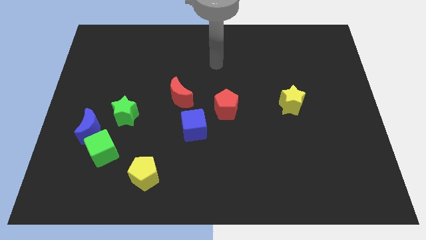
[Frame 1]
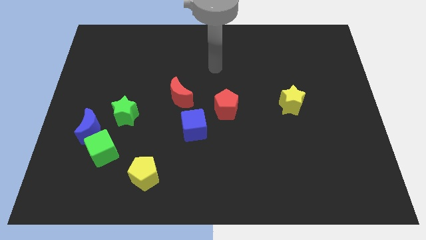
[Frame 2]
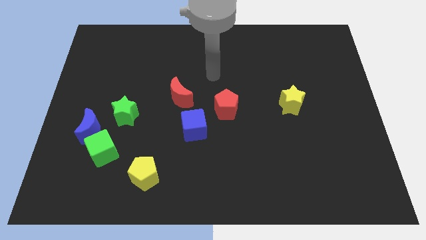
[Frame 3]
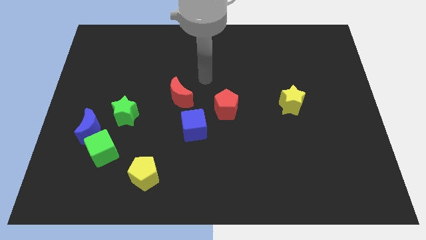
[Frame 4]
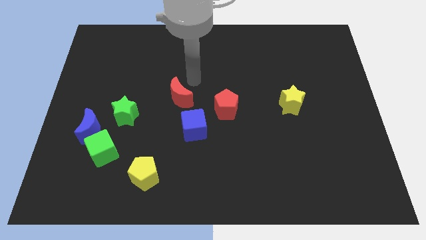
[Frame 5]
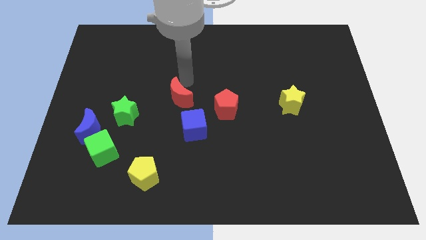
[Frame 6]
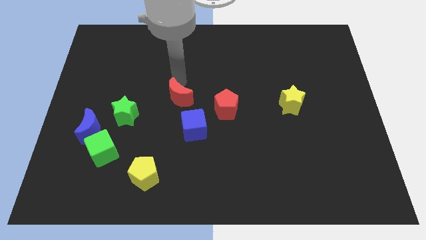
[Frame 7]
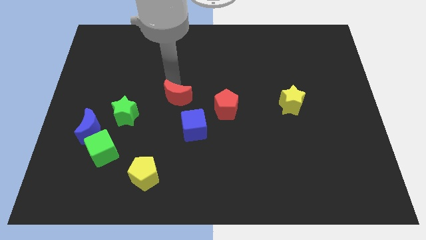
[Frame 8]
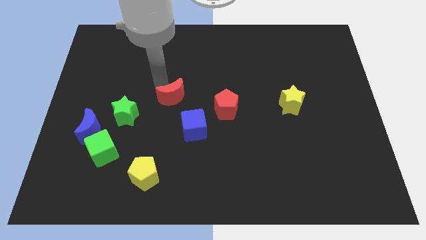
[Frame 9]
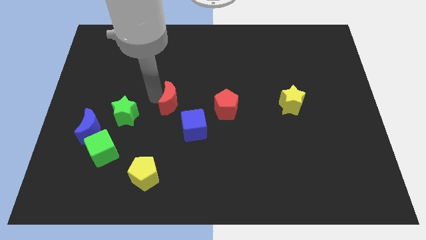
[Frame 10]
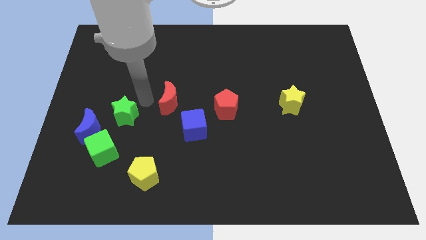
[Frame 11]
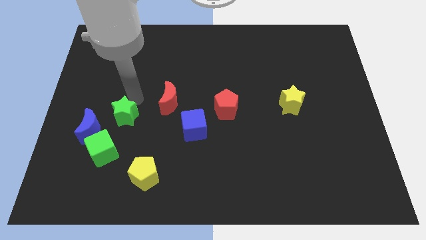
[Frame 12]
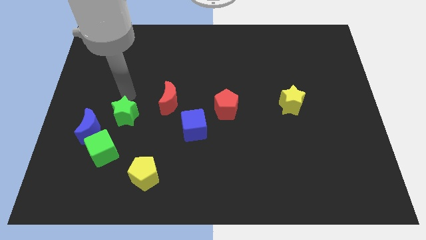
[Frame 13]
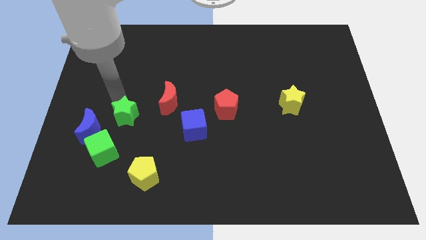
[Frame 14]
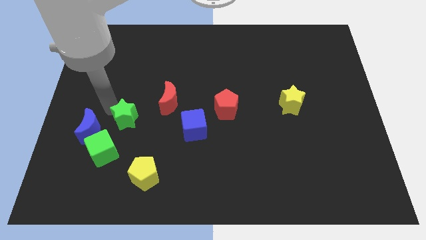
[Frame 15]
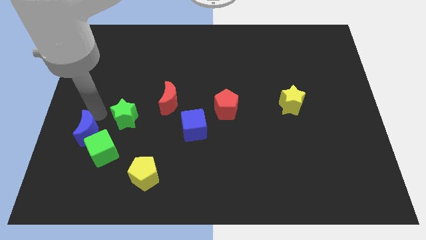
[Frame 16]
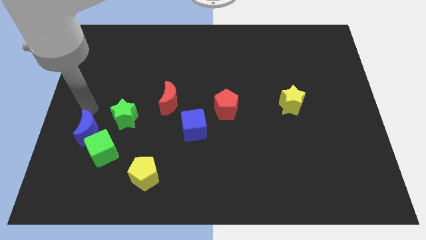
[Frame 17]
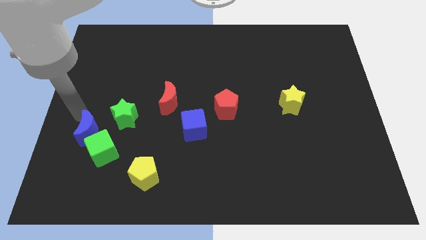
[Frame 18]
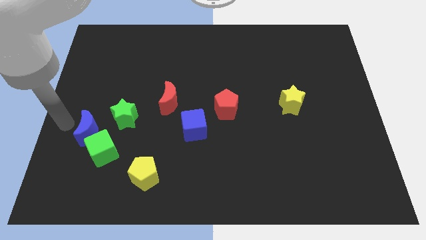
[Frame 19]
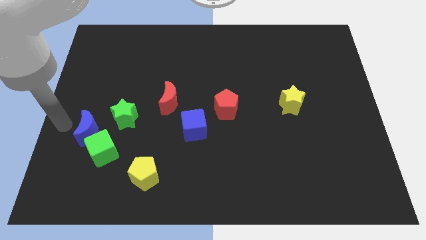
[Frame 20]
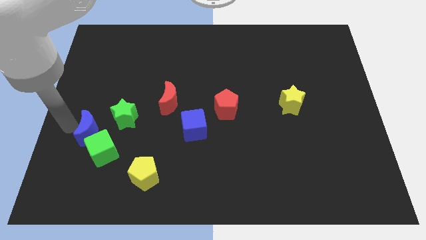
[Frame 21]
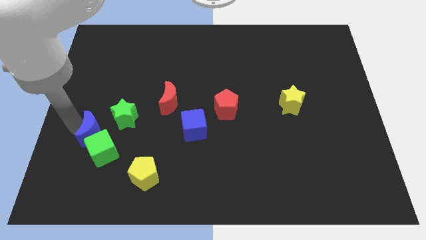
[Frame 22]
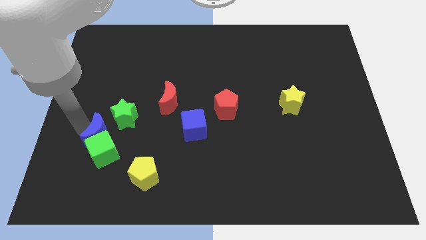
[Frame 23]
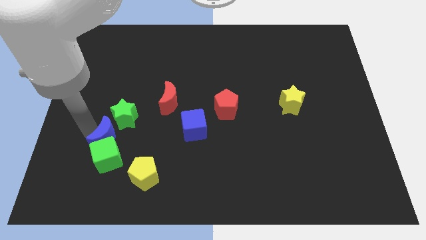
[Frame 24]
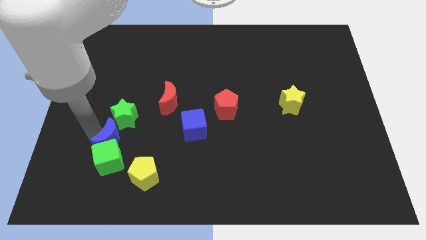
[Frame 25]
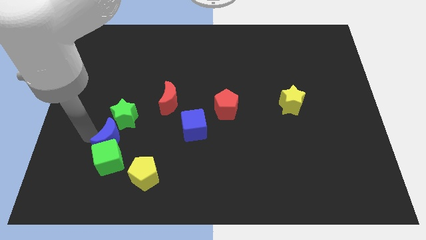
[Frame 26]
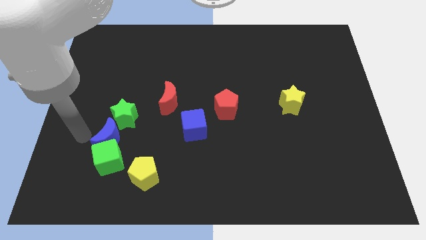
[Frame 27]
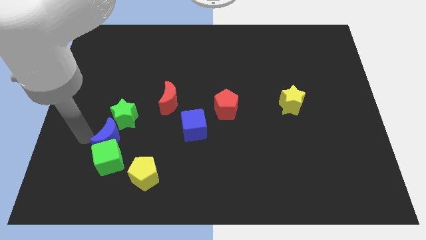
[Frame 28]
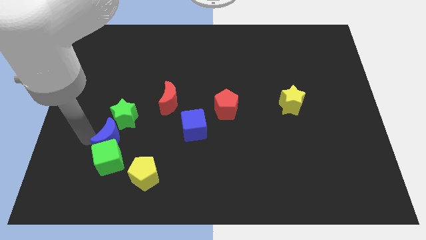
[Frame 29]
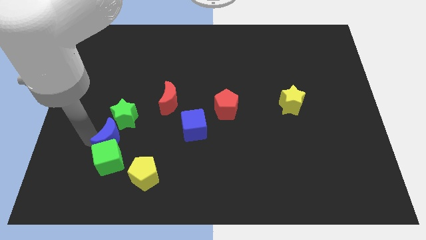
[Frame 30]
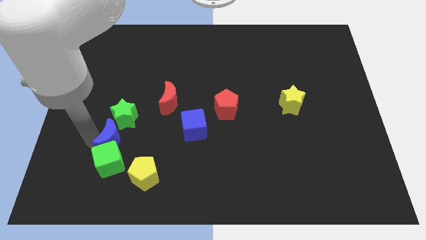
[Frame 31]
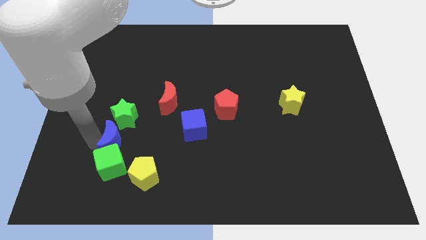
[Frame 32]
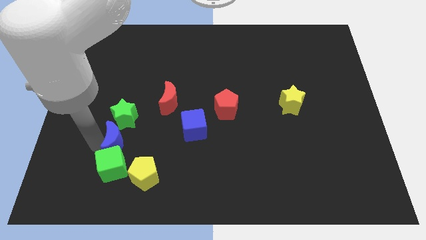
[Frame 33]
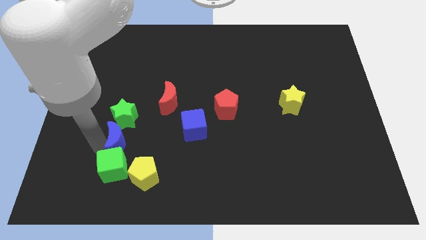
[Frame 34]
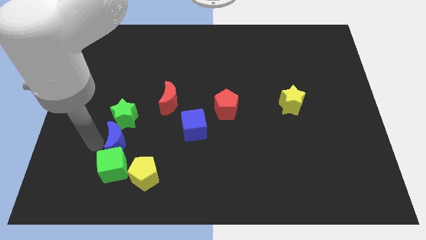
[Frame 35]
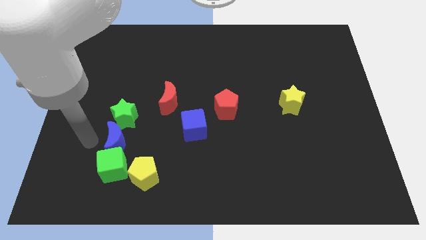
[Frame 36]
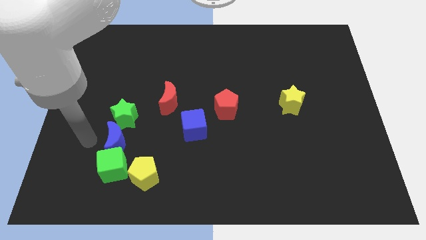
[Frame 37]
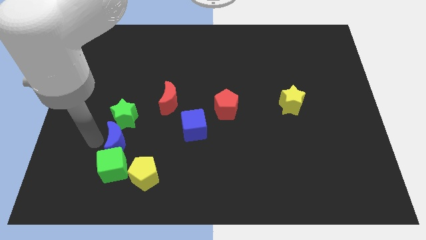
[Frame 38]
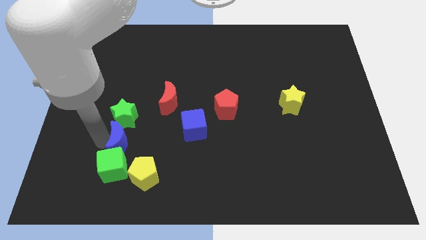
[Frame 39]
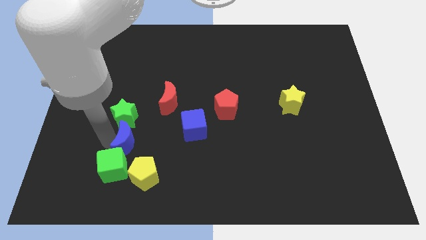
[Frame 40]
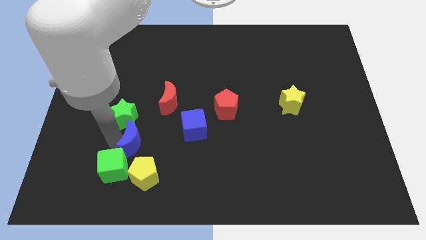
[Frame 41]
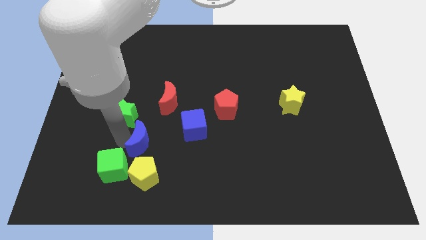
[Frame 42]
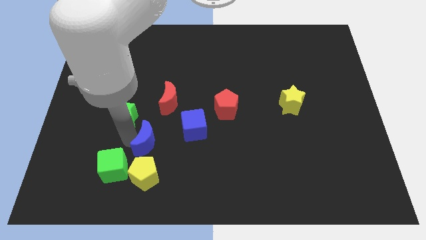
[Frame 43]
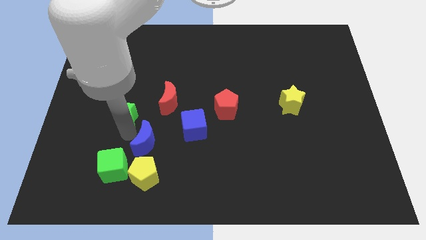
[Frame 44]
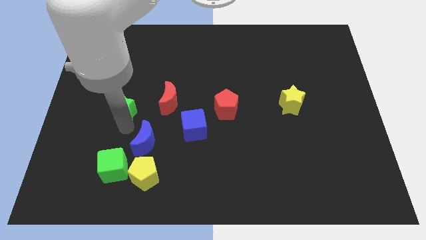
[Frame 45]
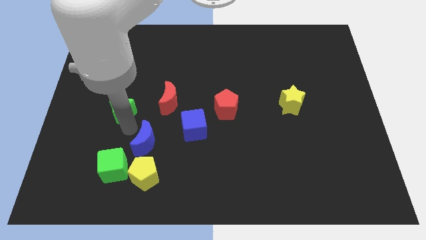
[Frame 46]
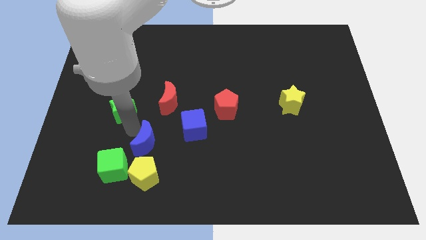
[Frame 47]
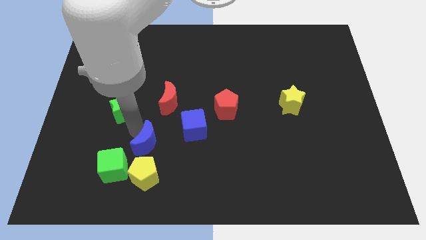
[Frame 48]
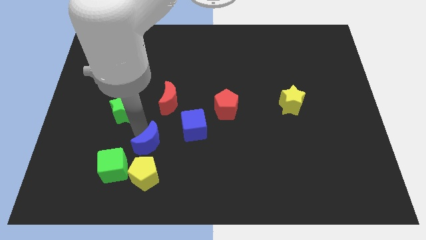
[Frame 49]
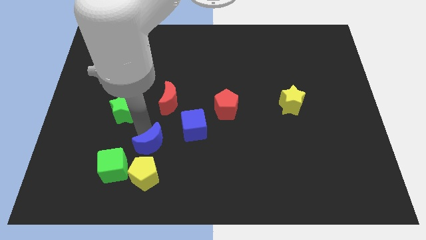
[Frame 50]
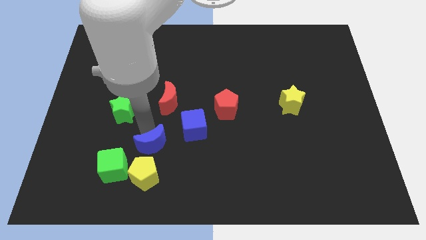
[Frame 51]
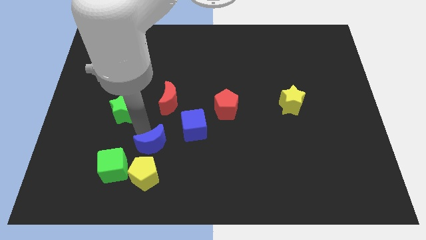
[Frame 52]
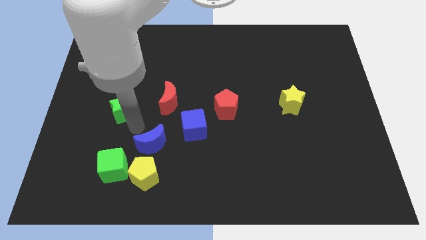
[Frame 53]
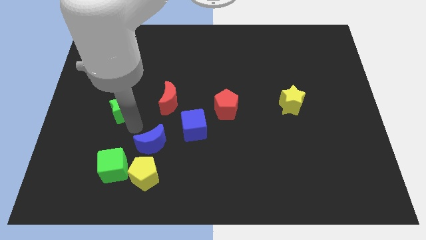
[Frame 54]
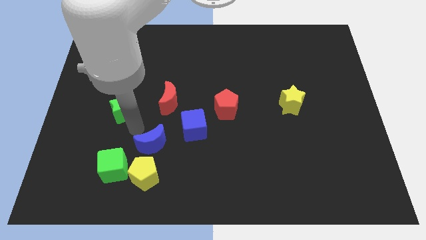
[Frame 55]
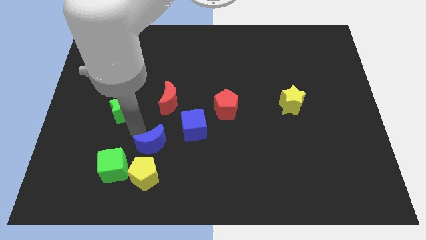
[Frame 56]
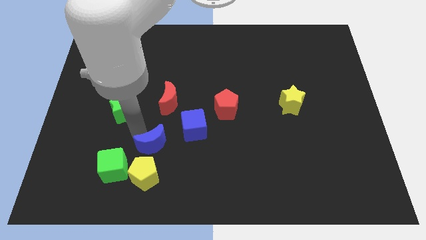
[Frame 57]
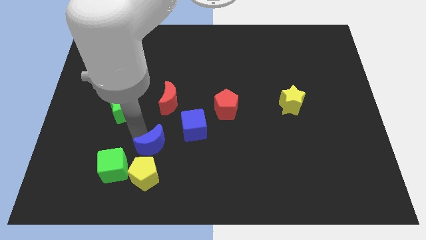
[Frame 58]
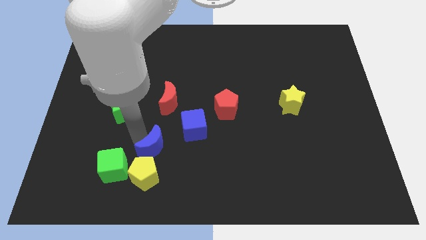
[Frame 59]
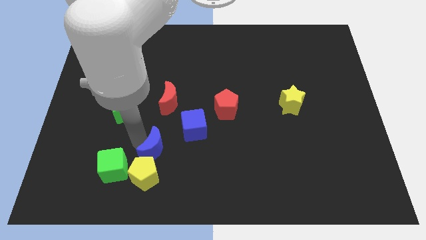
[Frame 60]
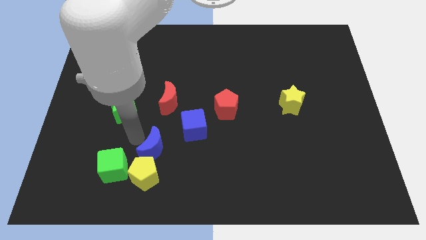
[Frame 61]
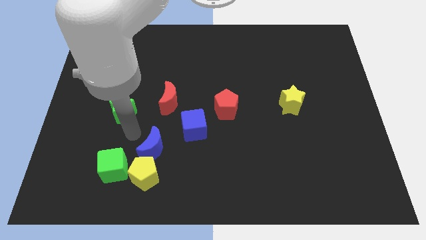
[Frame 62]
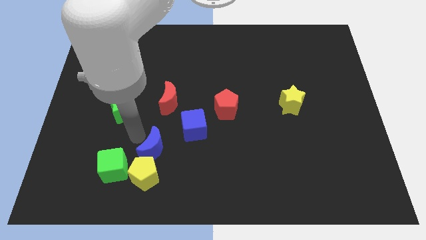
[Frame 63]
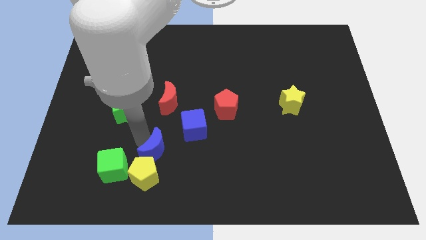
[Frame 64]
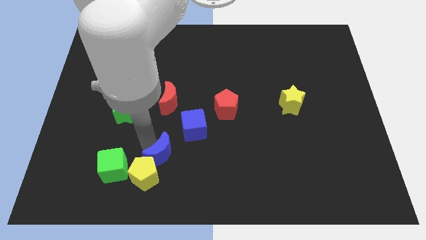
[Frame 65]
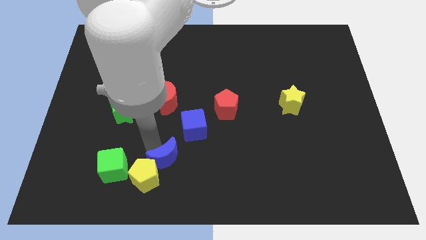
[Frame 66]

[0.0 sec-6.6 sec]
push the blue moon right of the yellow pentagon

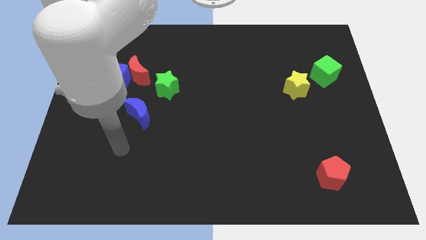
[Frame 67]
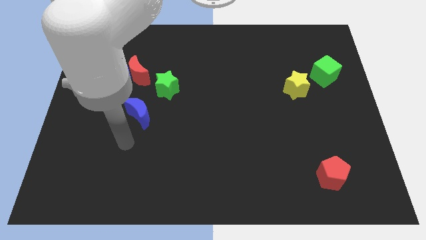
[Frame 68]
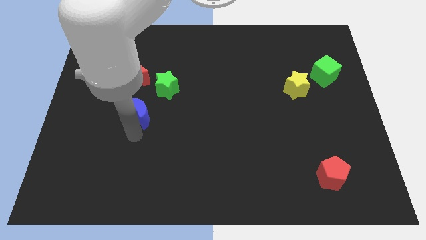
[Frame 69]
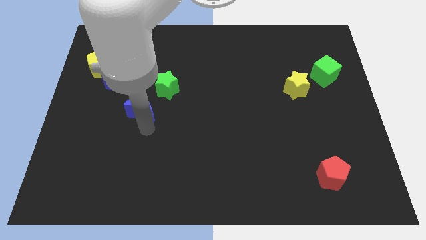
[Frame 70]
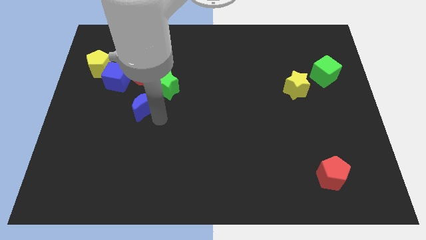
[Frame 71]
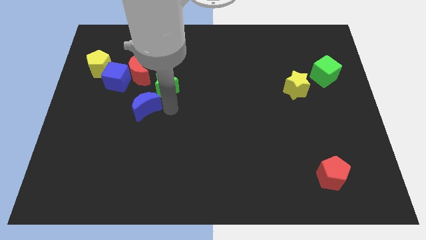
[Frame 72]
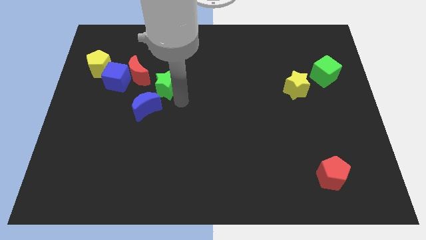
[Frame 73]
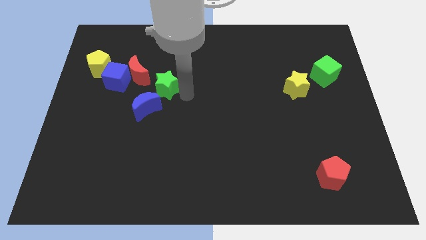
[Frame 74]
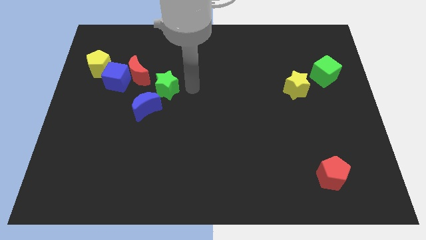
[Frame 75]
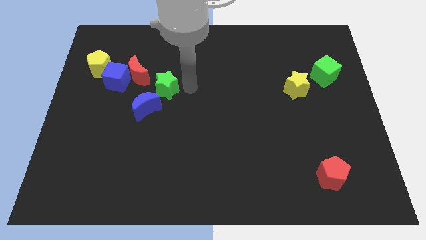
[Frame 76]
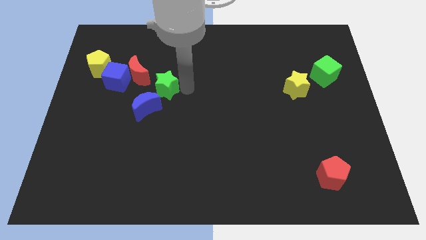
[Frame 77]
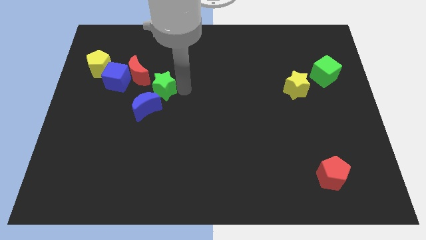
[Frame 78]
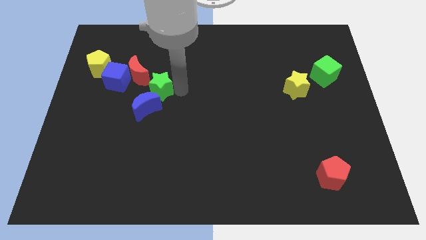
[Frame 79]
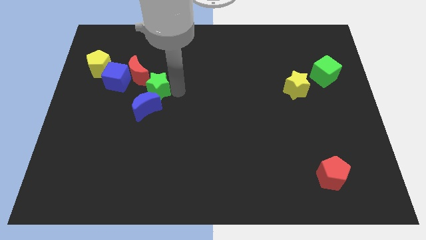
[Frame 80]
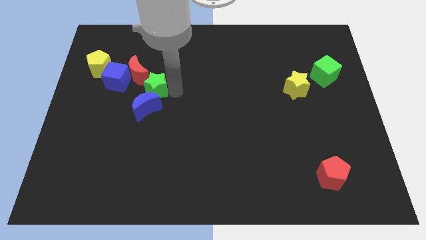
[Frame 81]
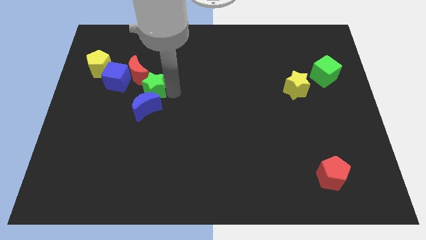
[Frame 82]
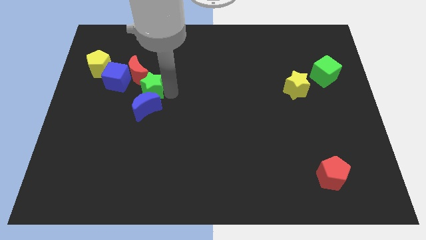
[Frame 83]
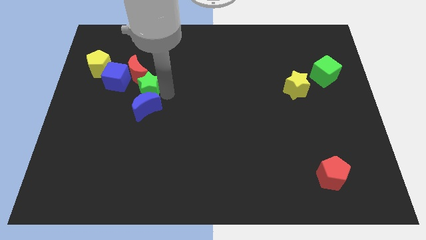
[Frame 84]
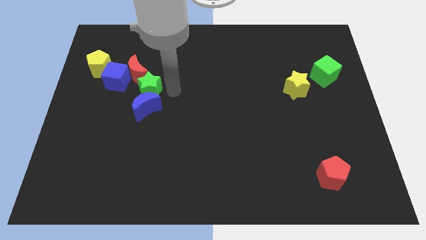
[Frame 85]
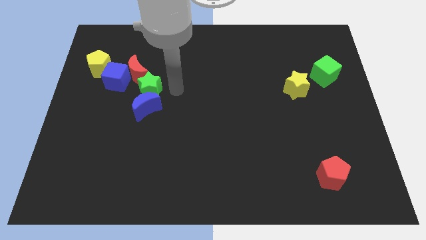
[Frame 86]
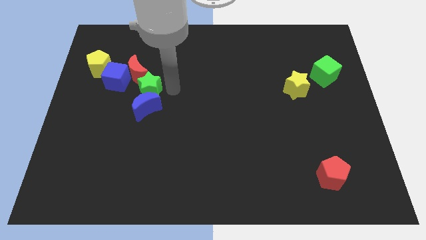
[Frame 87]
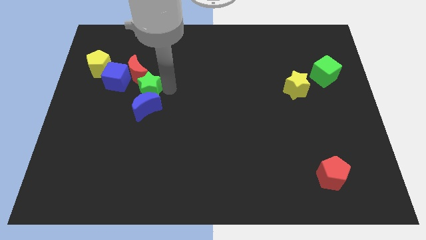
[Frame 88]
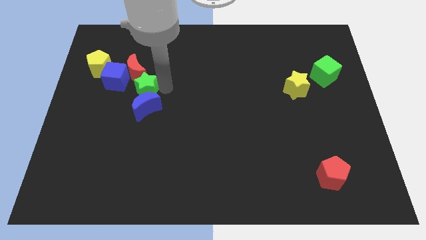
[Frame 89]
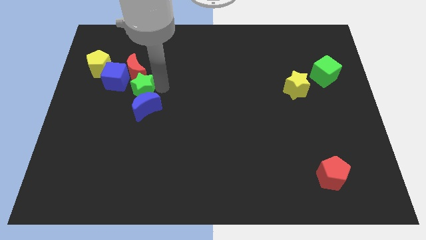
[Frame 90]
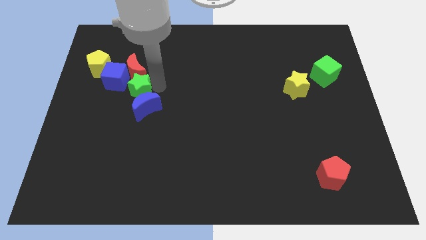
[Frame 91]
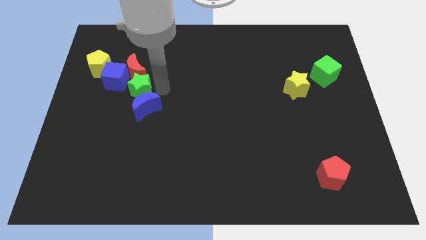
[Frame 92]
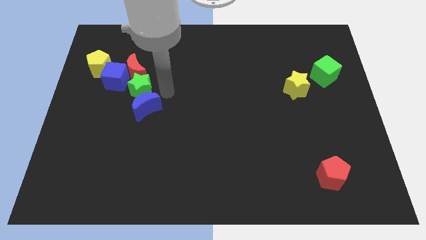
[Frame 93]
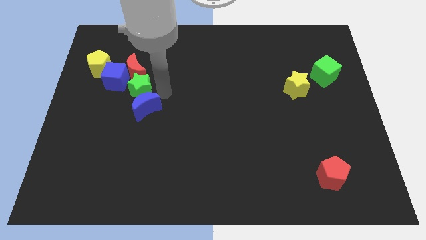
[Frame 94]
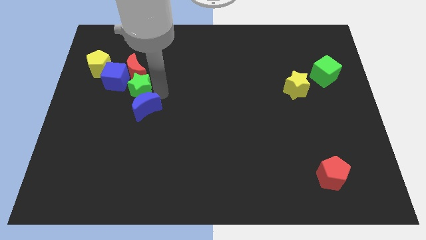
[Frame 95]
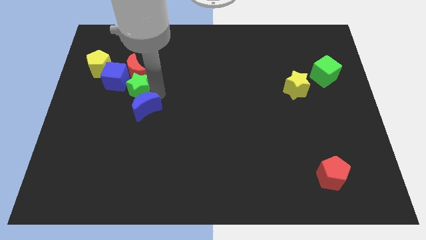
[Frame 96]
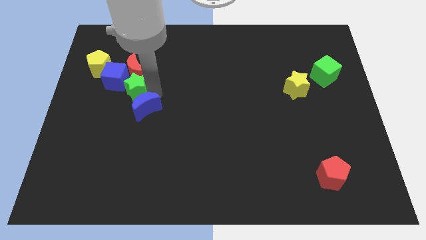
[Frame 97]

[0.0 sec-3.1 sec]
move the green star diagonally down and to the left of the red moon
